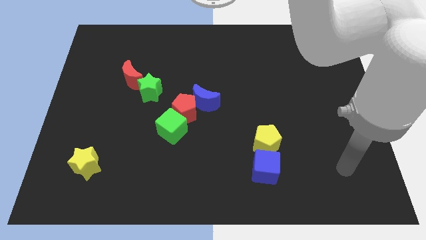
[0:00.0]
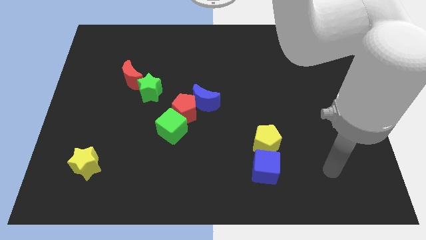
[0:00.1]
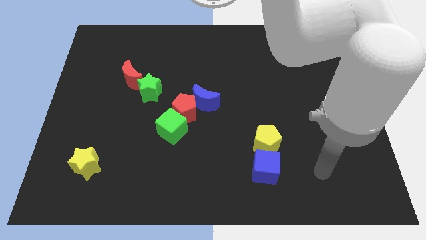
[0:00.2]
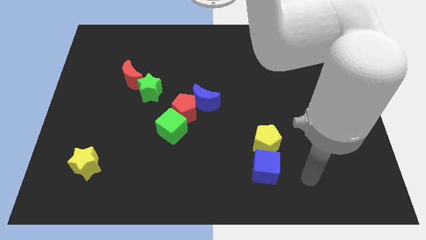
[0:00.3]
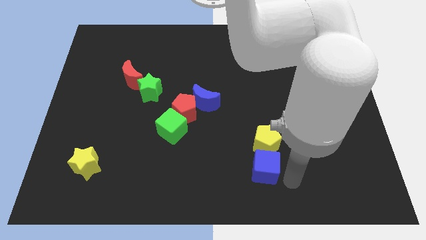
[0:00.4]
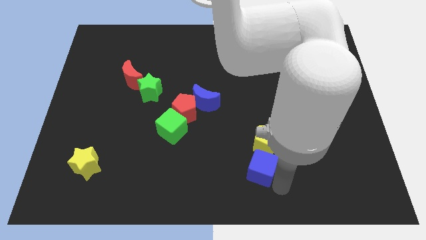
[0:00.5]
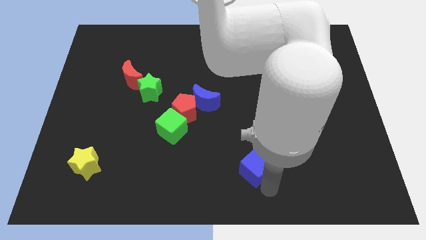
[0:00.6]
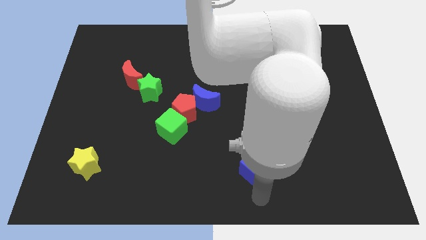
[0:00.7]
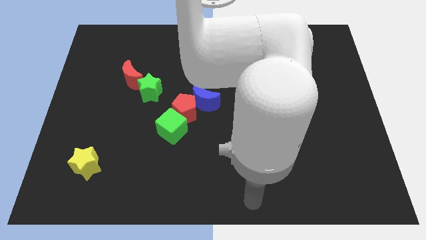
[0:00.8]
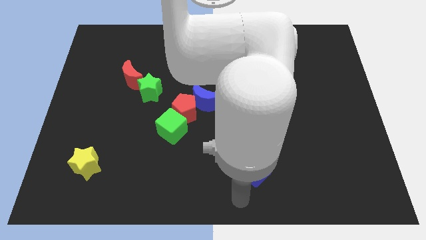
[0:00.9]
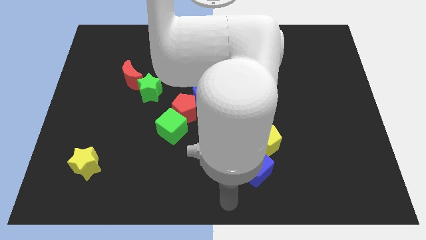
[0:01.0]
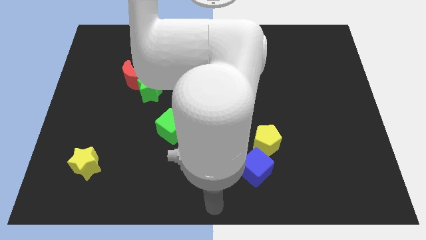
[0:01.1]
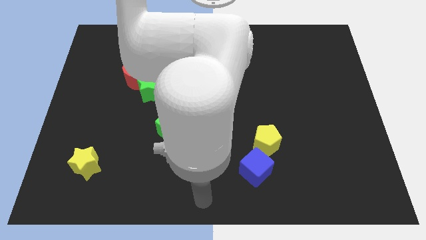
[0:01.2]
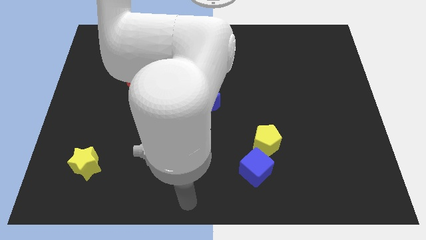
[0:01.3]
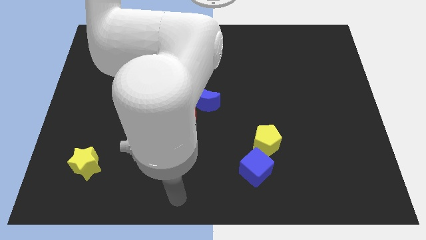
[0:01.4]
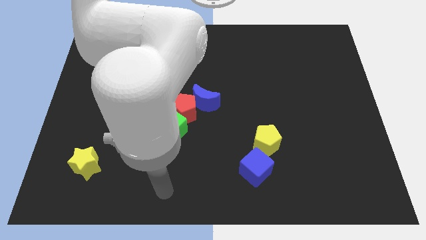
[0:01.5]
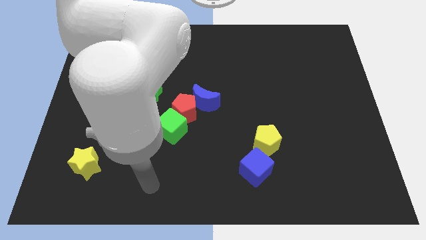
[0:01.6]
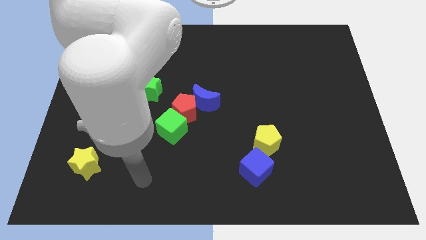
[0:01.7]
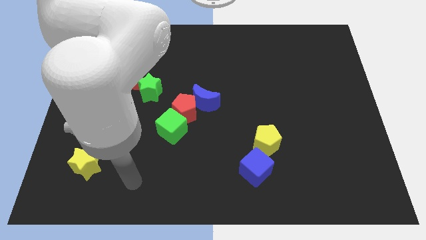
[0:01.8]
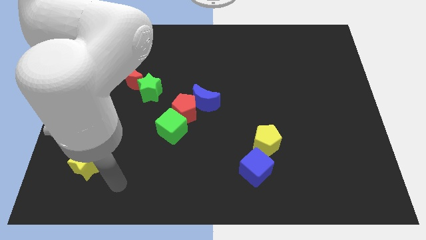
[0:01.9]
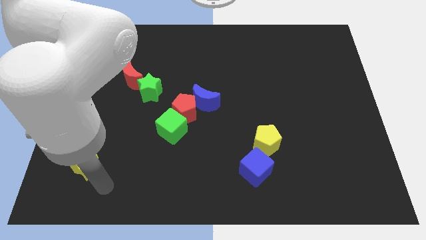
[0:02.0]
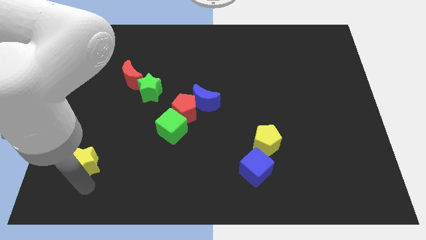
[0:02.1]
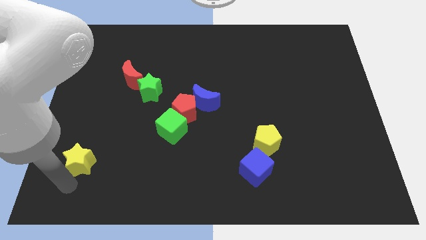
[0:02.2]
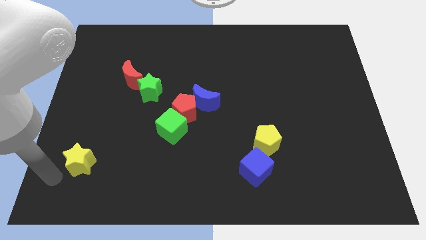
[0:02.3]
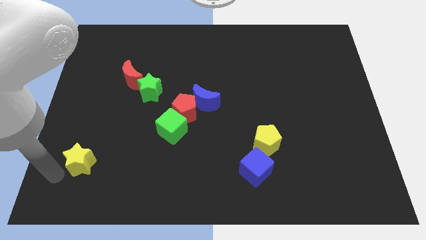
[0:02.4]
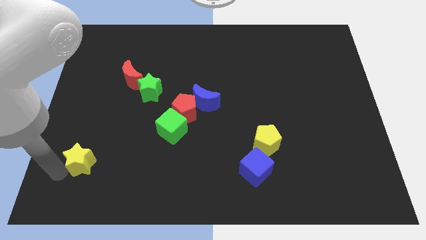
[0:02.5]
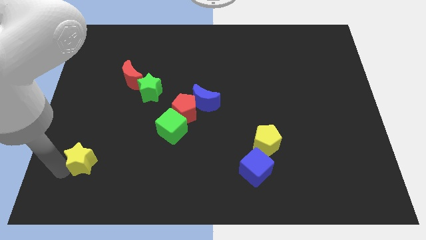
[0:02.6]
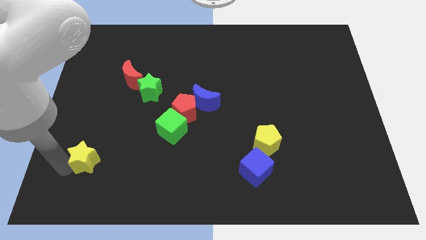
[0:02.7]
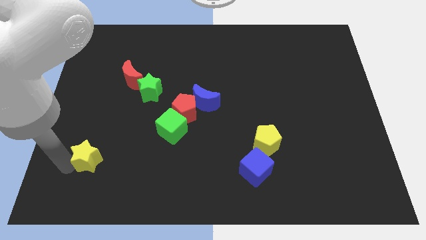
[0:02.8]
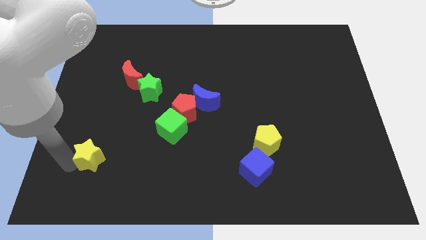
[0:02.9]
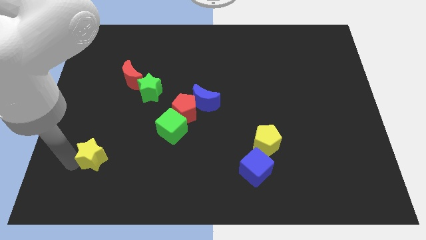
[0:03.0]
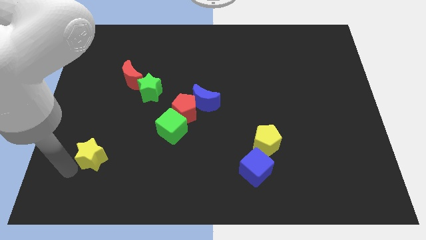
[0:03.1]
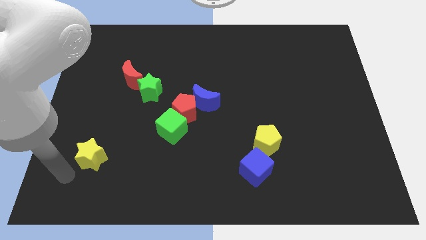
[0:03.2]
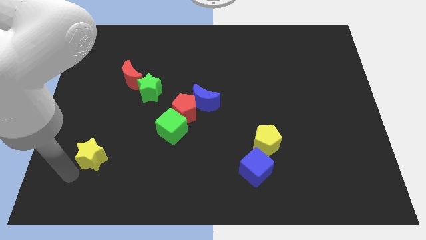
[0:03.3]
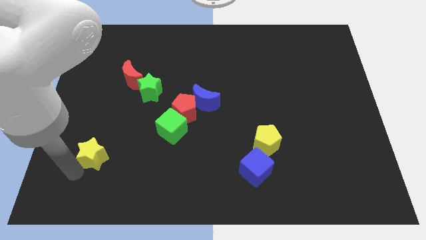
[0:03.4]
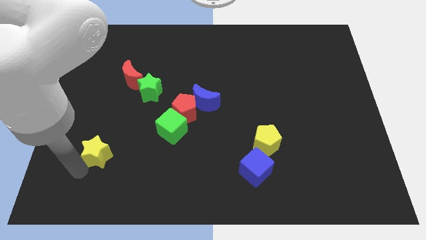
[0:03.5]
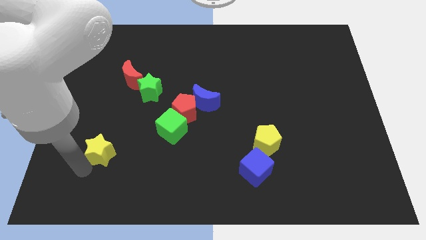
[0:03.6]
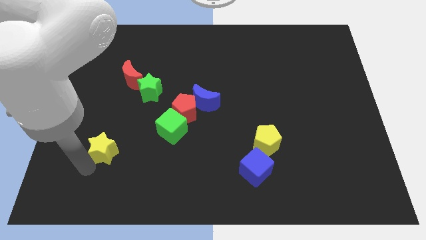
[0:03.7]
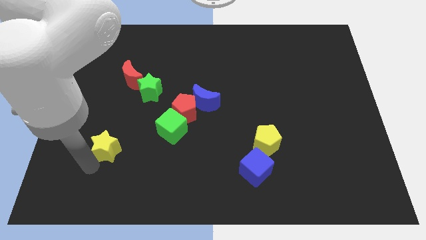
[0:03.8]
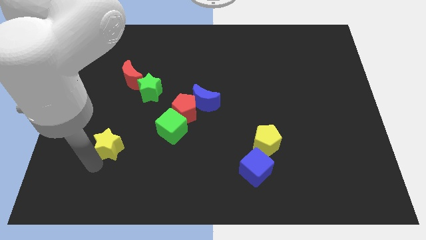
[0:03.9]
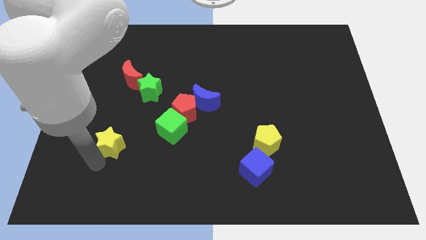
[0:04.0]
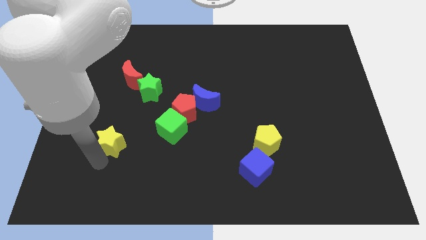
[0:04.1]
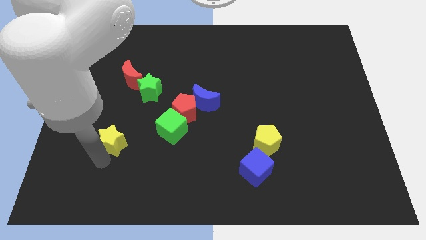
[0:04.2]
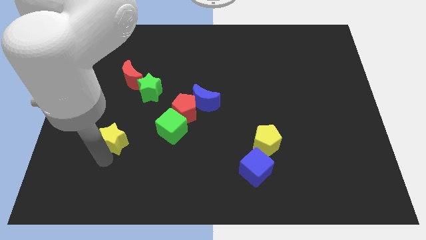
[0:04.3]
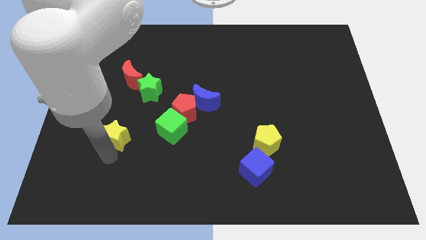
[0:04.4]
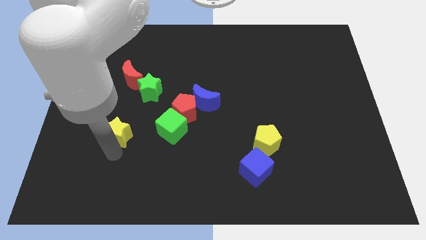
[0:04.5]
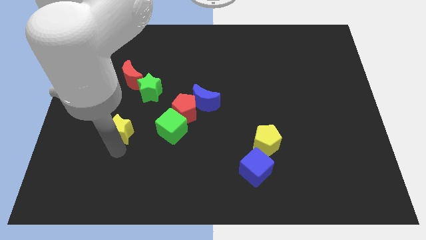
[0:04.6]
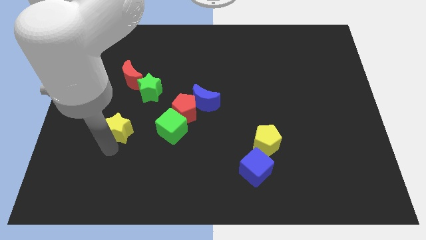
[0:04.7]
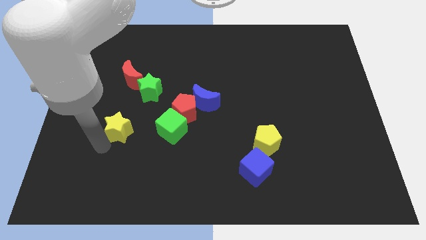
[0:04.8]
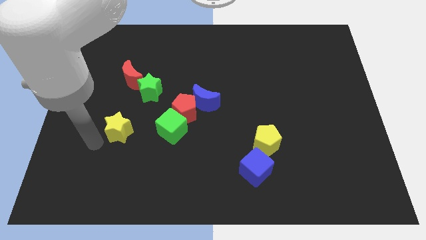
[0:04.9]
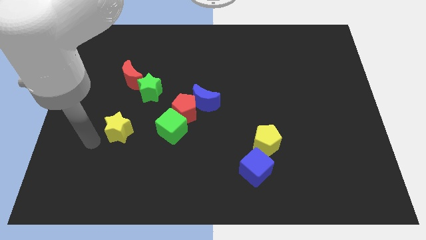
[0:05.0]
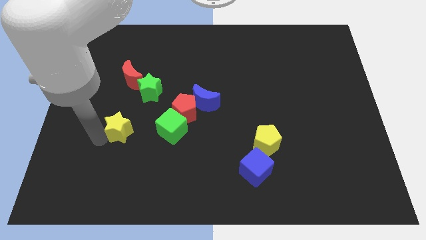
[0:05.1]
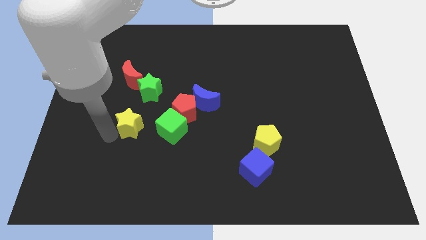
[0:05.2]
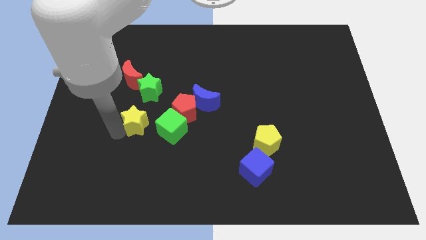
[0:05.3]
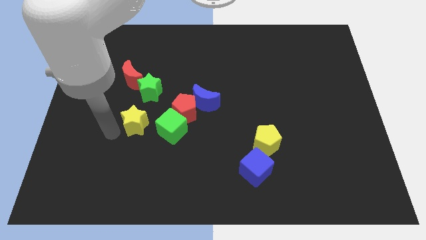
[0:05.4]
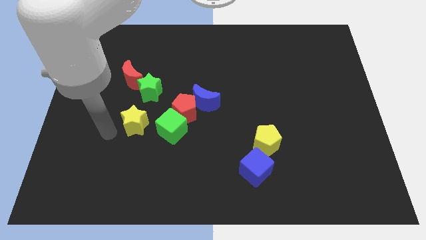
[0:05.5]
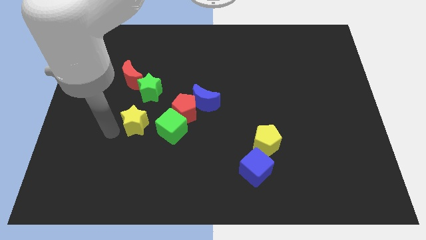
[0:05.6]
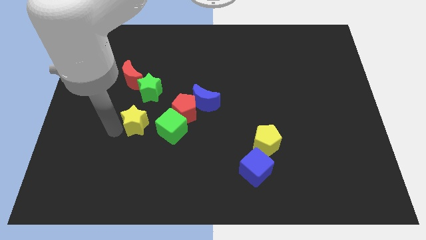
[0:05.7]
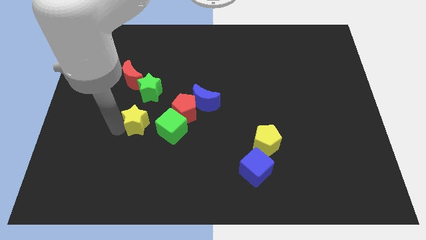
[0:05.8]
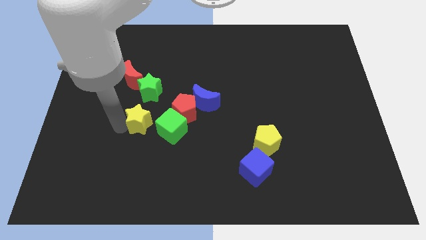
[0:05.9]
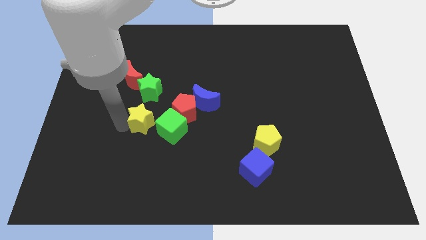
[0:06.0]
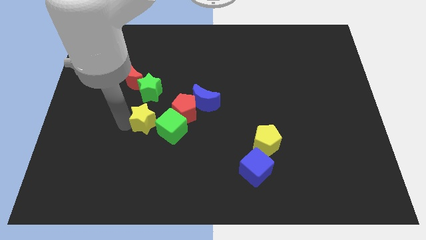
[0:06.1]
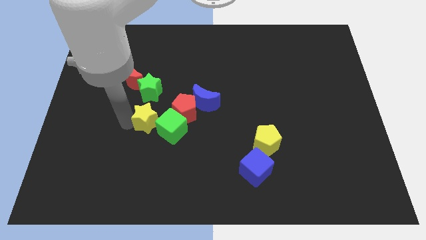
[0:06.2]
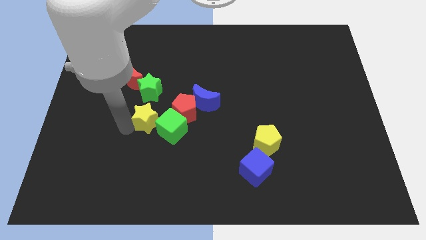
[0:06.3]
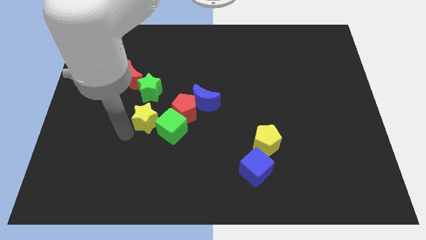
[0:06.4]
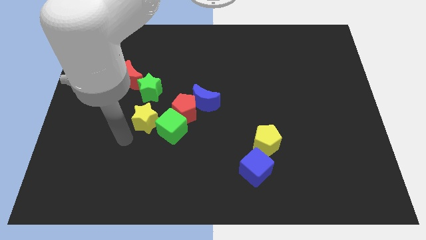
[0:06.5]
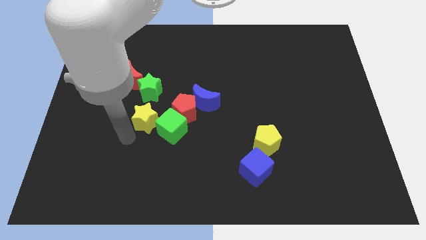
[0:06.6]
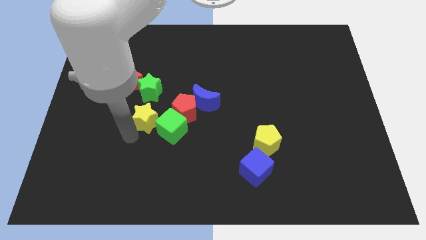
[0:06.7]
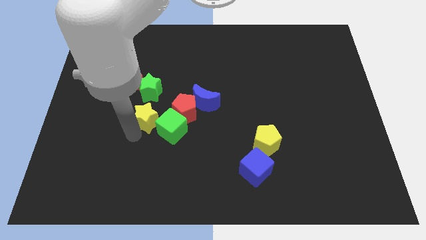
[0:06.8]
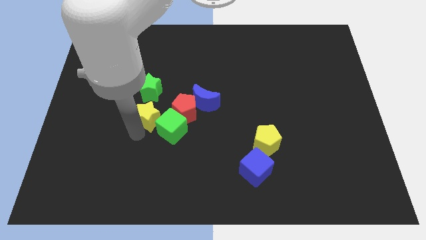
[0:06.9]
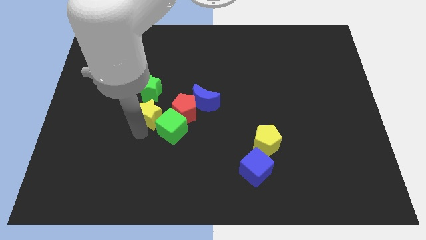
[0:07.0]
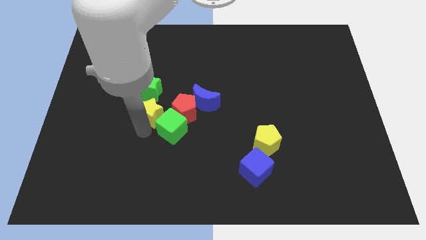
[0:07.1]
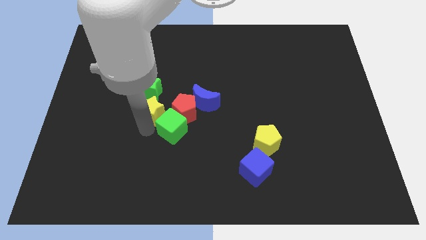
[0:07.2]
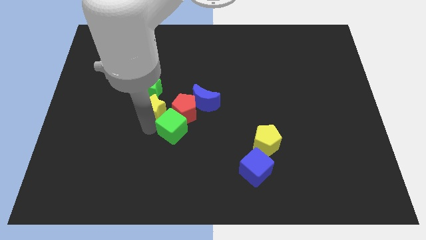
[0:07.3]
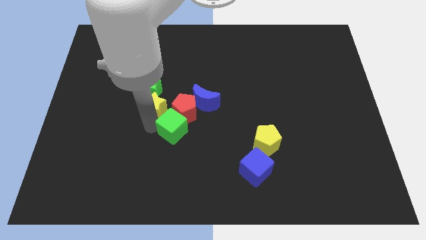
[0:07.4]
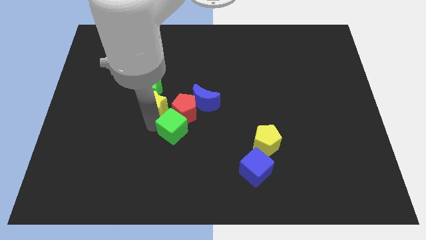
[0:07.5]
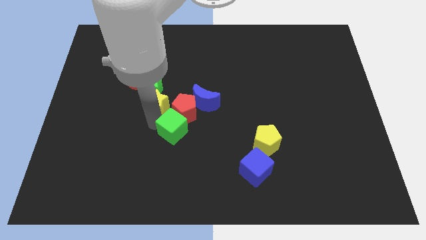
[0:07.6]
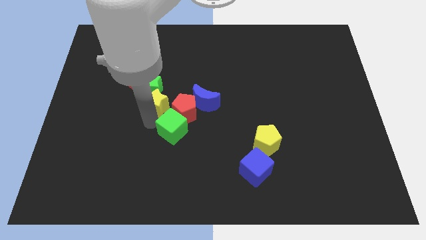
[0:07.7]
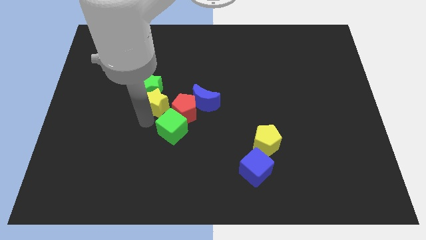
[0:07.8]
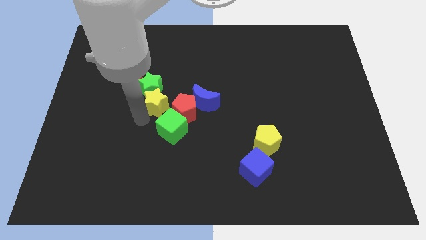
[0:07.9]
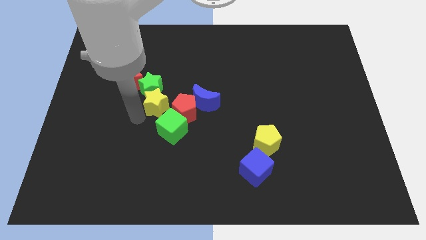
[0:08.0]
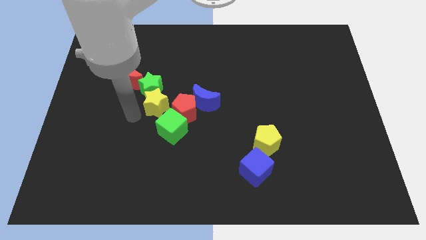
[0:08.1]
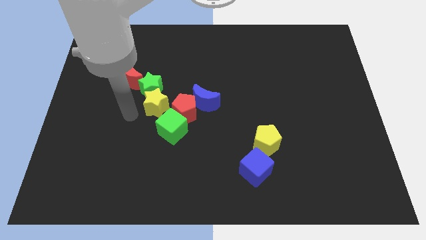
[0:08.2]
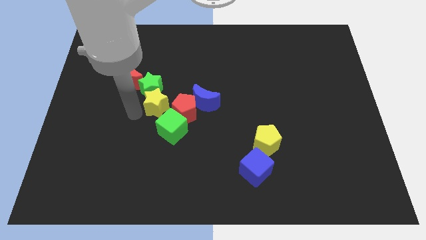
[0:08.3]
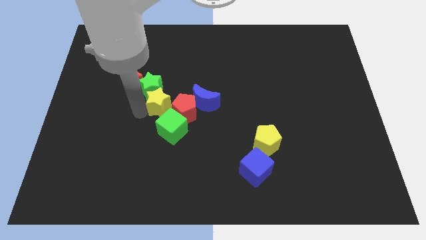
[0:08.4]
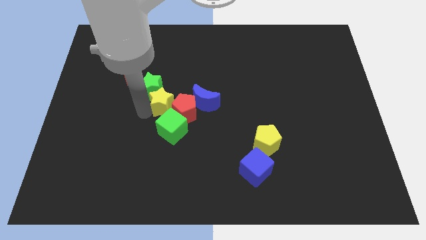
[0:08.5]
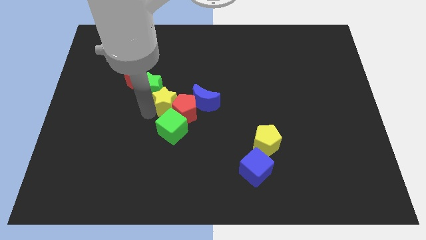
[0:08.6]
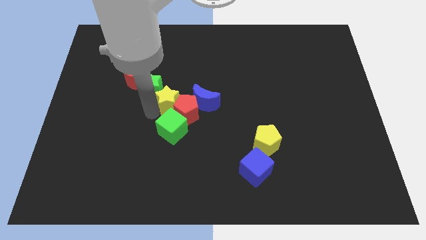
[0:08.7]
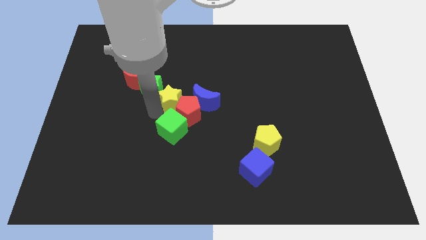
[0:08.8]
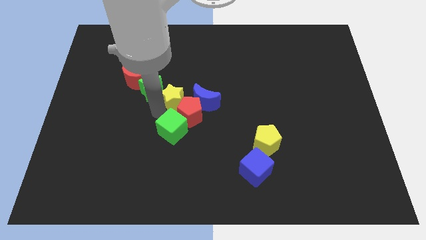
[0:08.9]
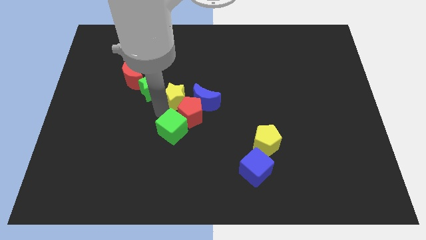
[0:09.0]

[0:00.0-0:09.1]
slide the yellow star diagonally up and to the left of the blue moon
